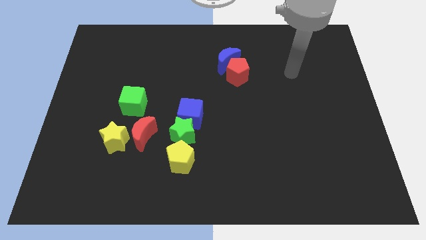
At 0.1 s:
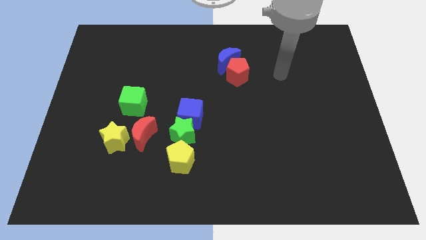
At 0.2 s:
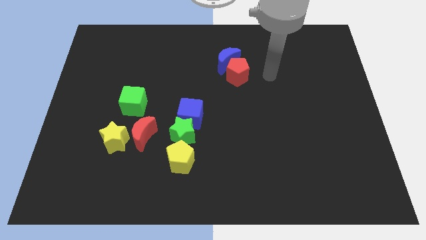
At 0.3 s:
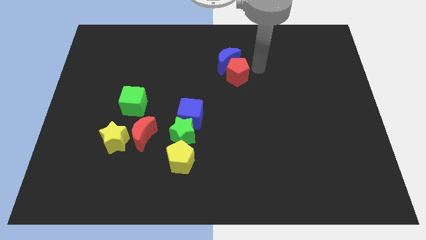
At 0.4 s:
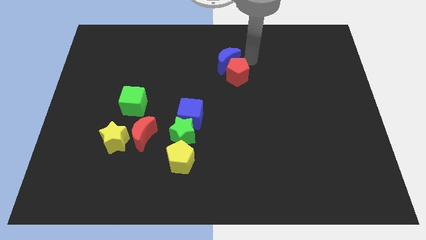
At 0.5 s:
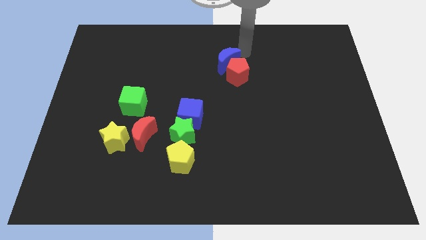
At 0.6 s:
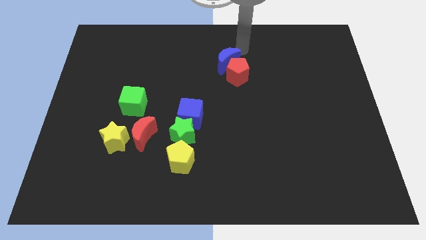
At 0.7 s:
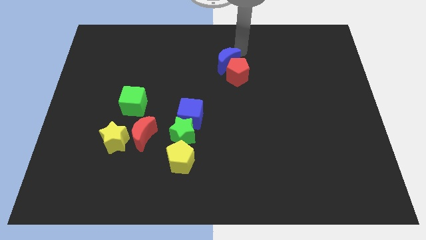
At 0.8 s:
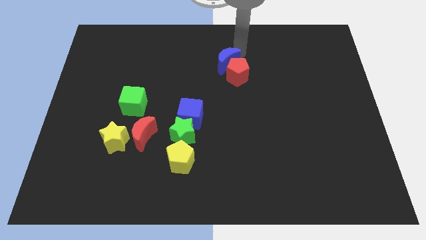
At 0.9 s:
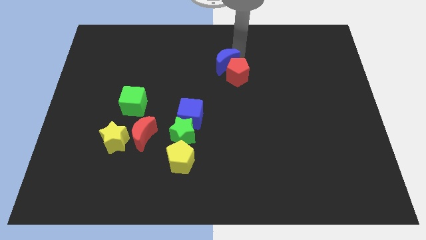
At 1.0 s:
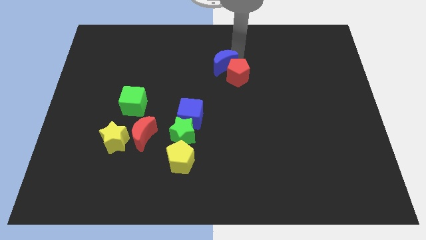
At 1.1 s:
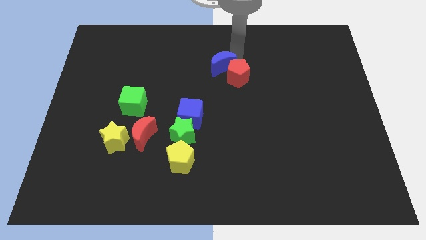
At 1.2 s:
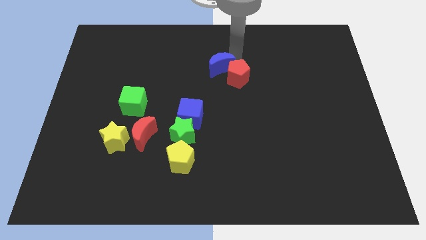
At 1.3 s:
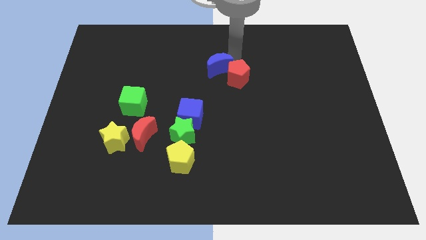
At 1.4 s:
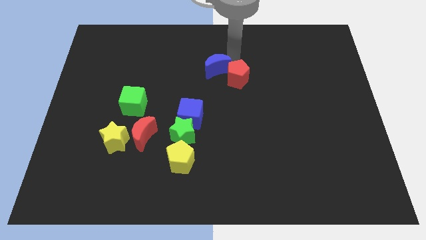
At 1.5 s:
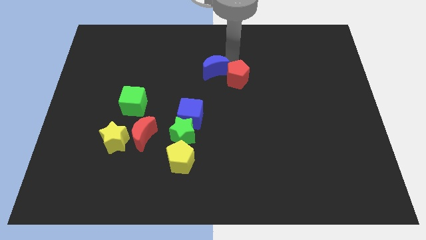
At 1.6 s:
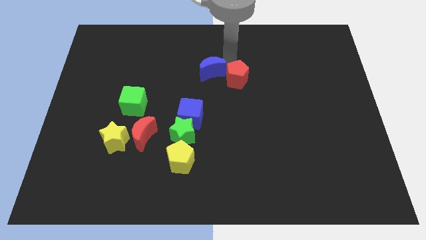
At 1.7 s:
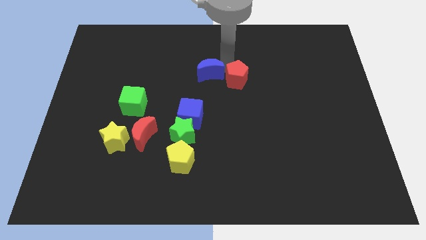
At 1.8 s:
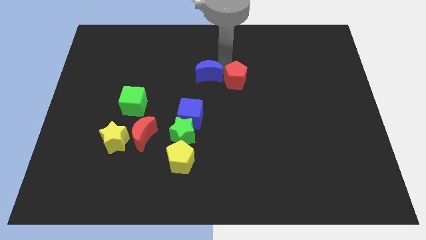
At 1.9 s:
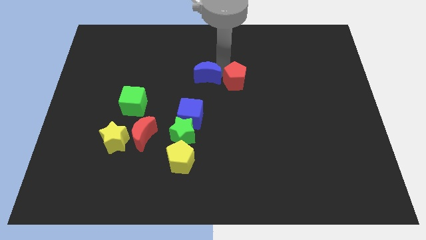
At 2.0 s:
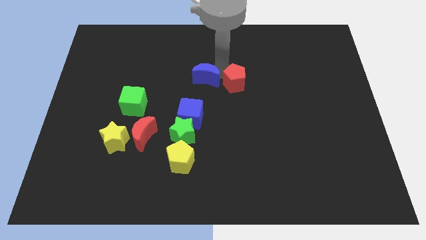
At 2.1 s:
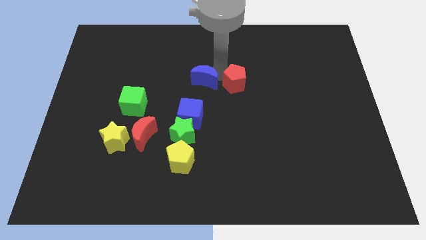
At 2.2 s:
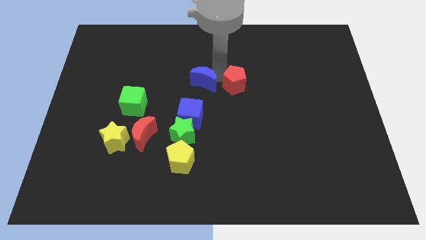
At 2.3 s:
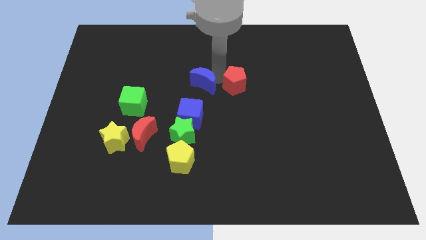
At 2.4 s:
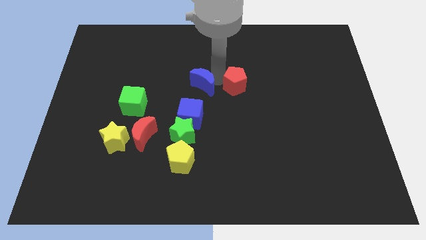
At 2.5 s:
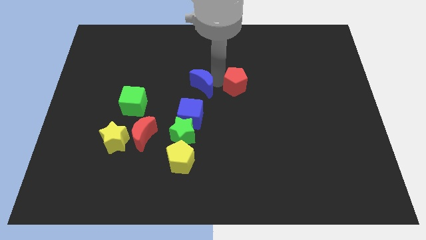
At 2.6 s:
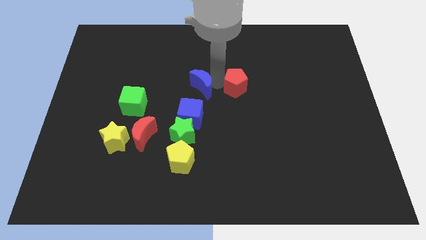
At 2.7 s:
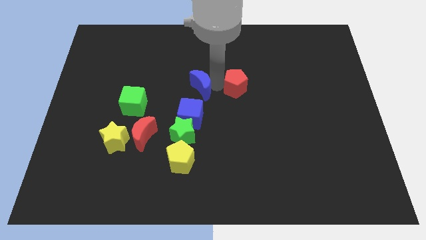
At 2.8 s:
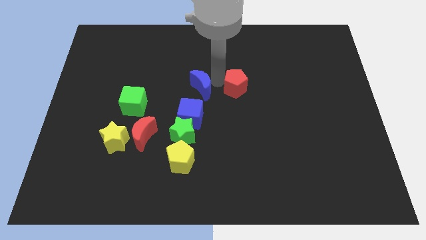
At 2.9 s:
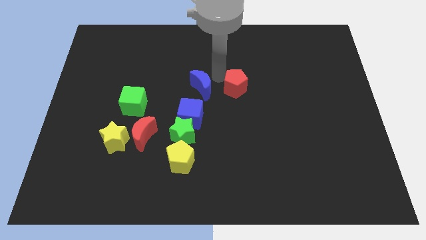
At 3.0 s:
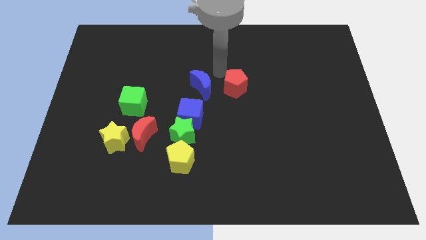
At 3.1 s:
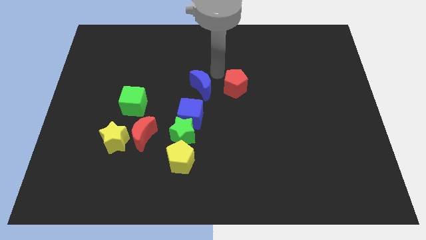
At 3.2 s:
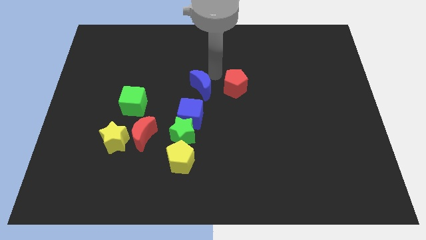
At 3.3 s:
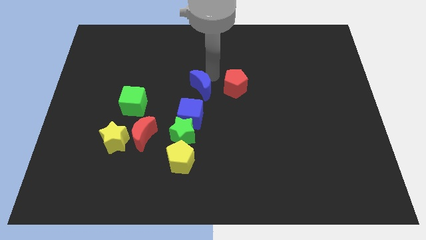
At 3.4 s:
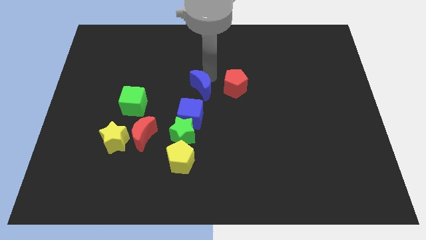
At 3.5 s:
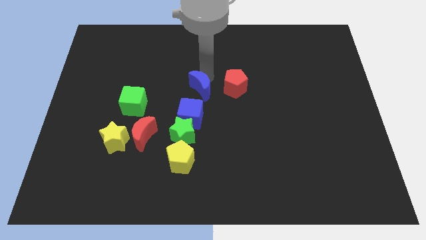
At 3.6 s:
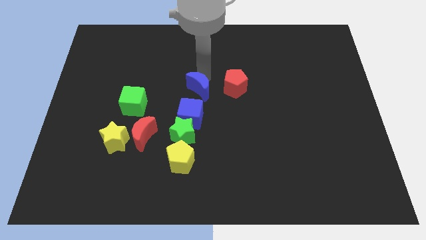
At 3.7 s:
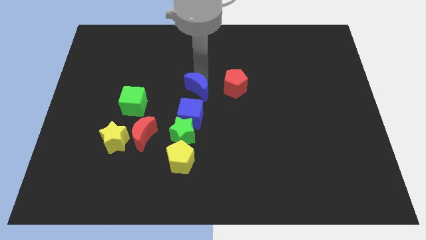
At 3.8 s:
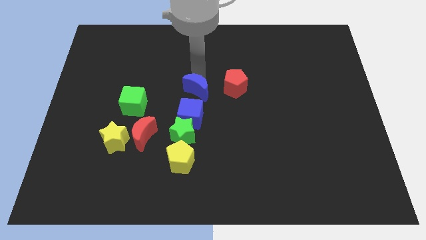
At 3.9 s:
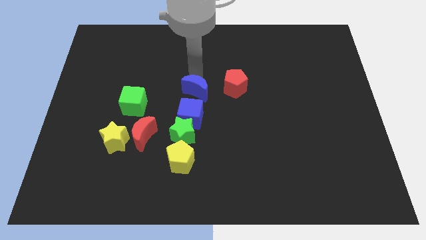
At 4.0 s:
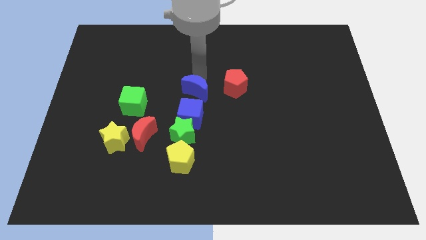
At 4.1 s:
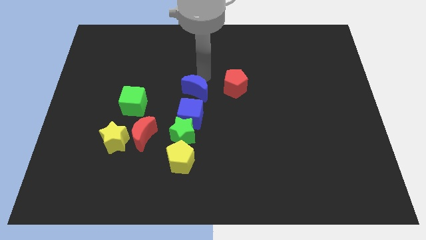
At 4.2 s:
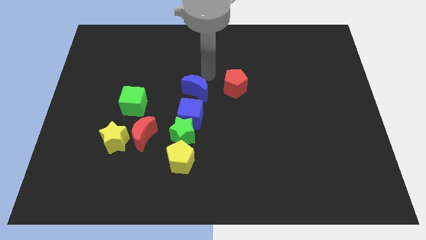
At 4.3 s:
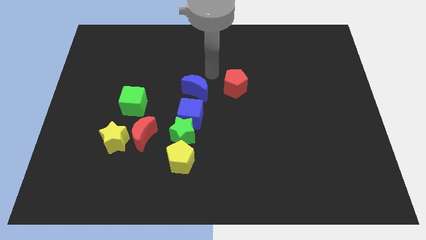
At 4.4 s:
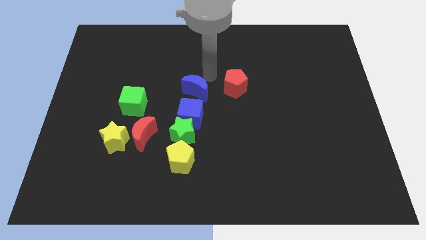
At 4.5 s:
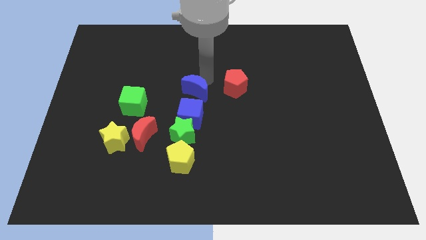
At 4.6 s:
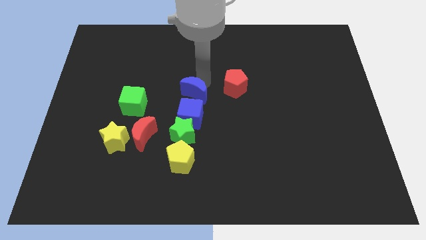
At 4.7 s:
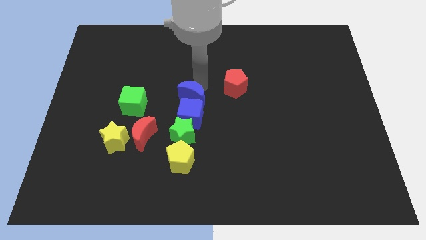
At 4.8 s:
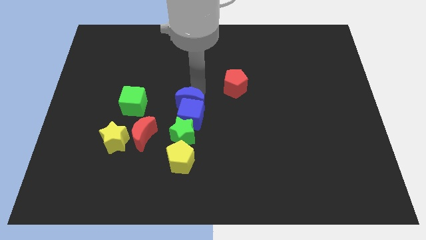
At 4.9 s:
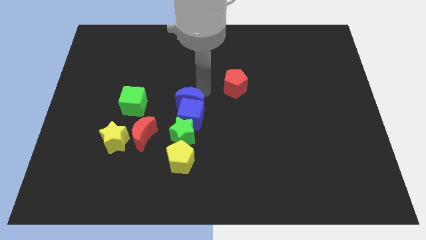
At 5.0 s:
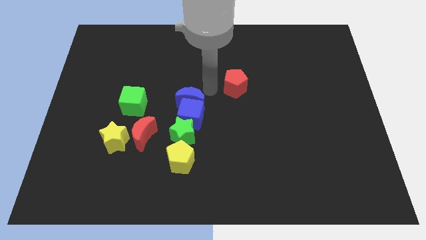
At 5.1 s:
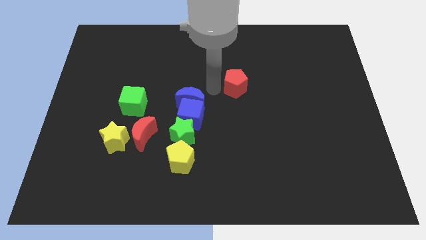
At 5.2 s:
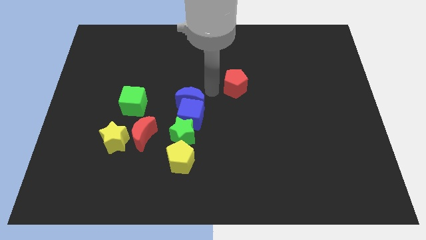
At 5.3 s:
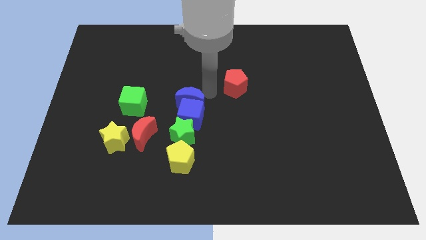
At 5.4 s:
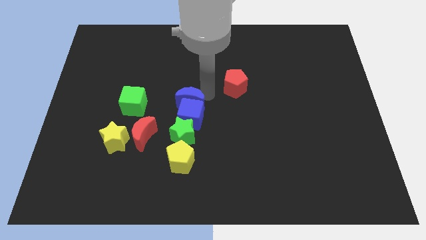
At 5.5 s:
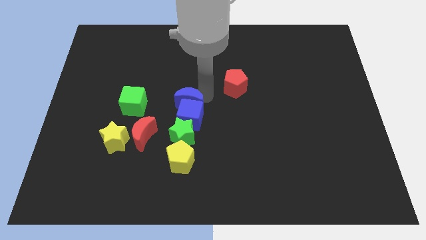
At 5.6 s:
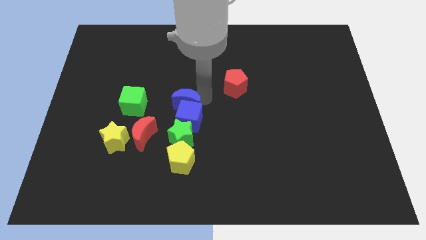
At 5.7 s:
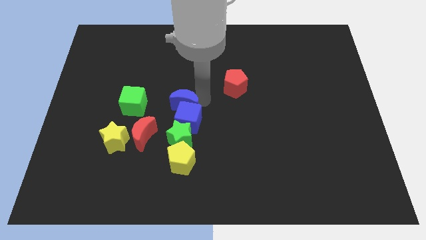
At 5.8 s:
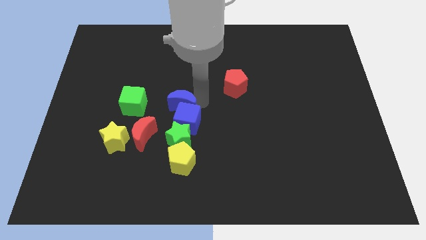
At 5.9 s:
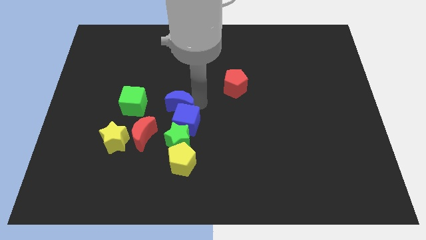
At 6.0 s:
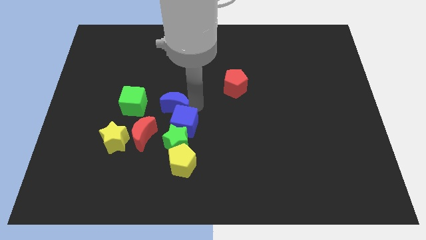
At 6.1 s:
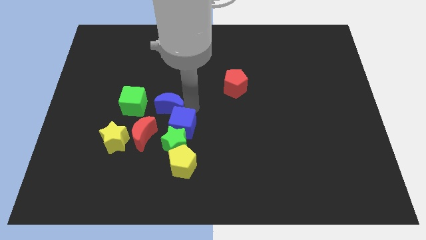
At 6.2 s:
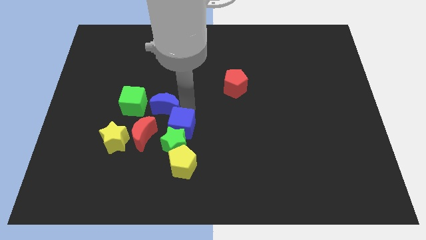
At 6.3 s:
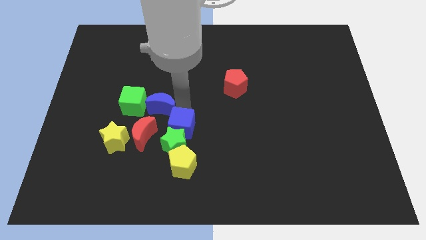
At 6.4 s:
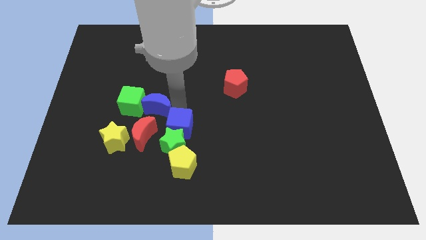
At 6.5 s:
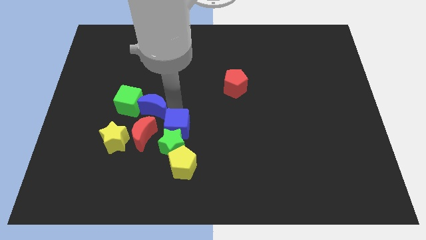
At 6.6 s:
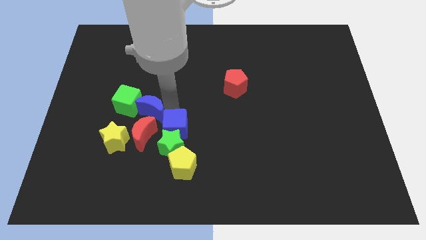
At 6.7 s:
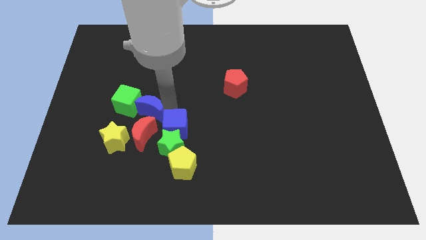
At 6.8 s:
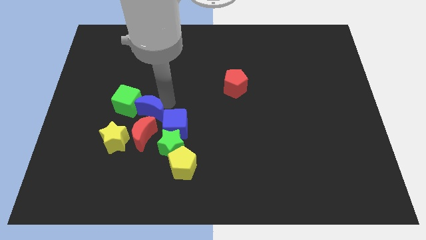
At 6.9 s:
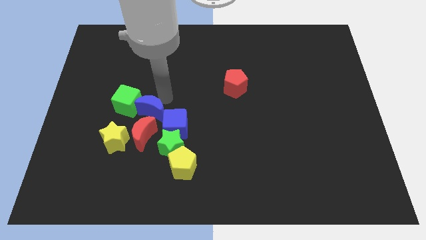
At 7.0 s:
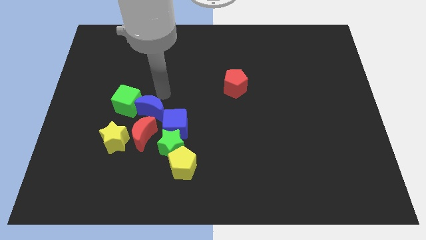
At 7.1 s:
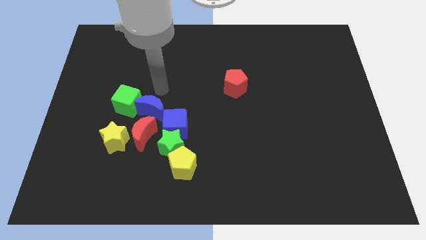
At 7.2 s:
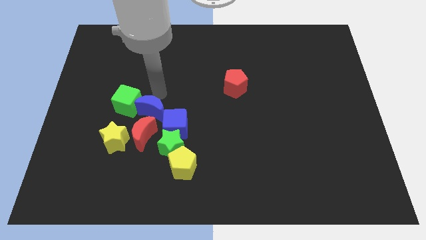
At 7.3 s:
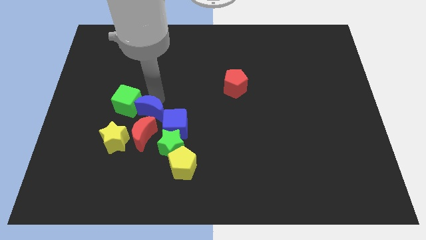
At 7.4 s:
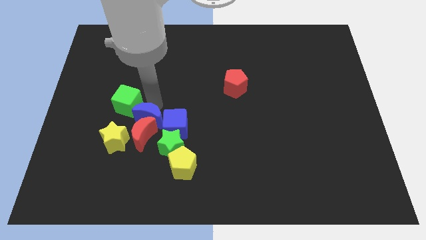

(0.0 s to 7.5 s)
slide the blue moon to the red moon

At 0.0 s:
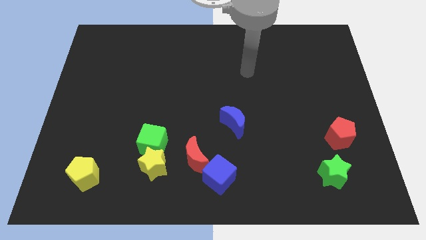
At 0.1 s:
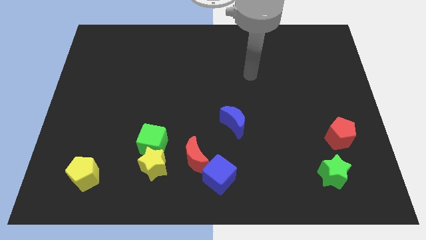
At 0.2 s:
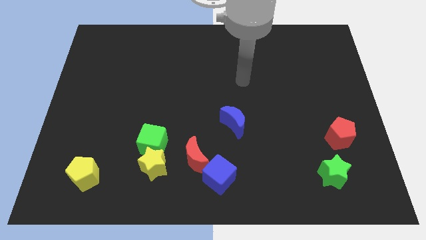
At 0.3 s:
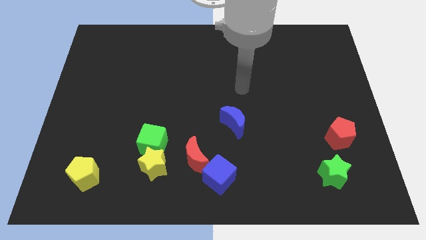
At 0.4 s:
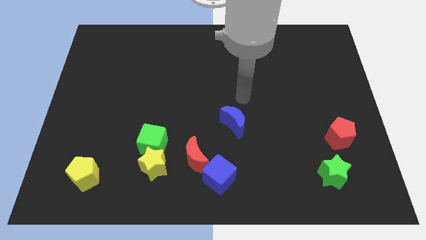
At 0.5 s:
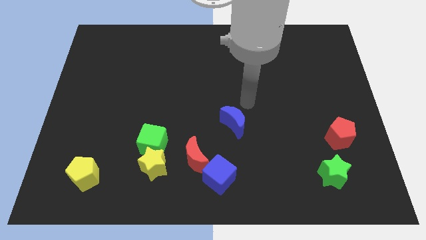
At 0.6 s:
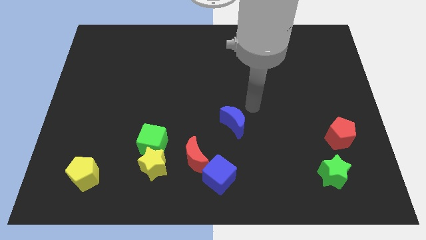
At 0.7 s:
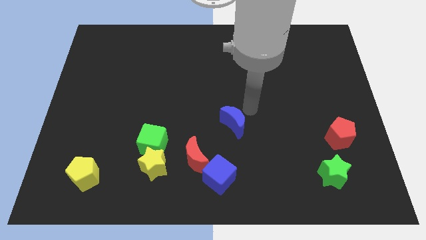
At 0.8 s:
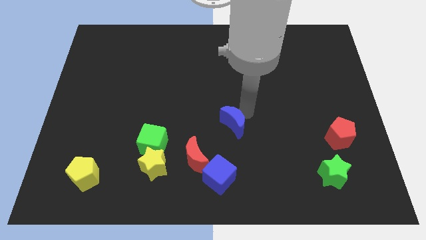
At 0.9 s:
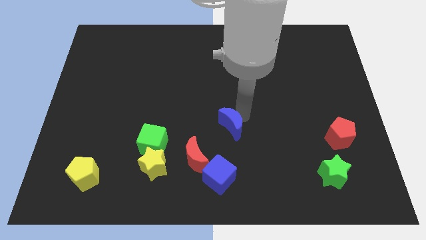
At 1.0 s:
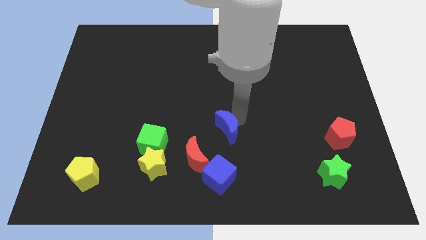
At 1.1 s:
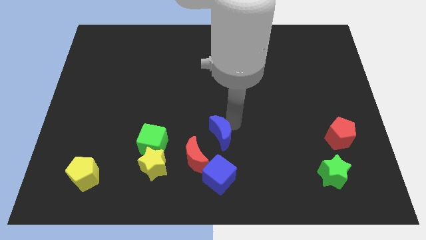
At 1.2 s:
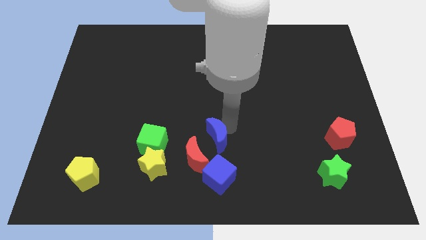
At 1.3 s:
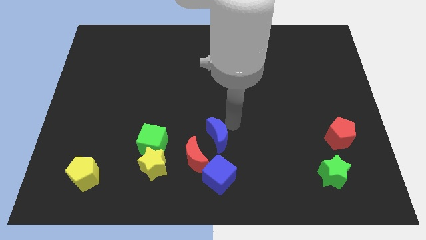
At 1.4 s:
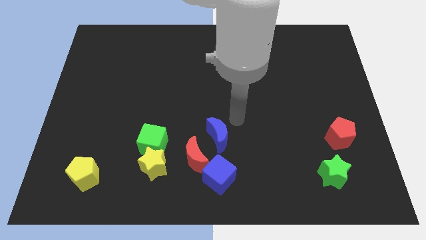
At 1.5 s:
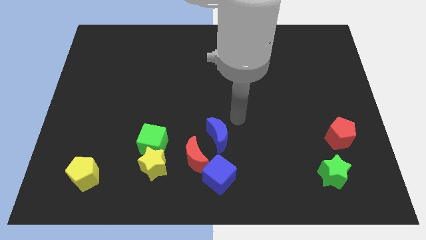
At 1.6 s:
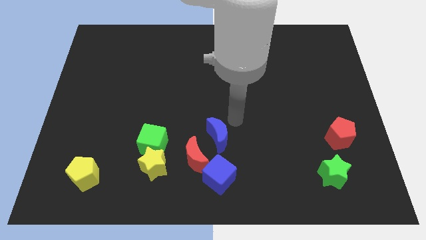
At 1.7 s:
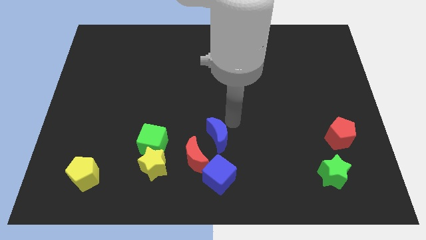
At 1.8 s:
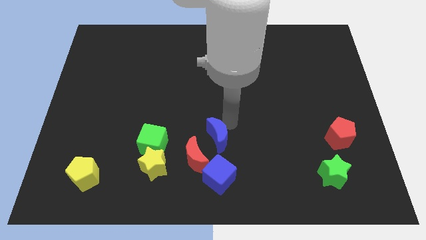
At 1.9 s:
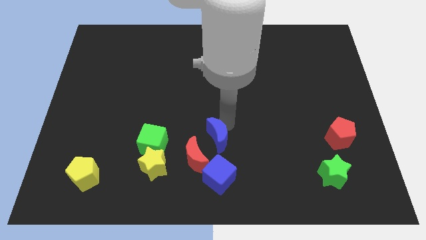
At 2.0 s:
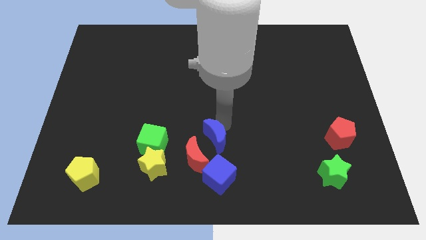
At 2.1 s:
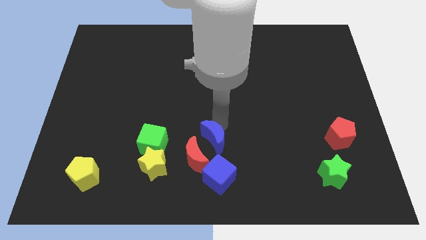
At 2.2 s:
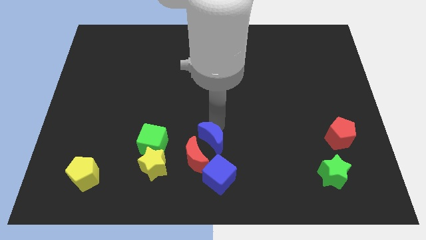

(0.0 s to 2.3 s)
push the blue moon towards the red moon
